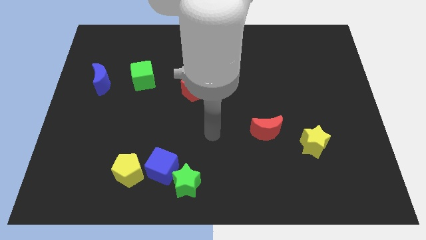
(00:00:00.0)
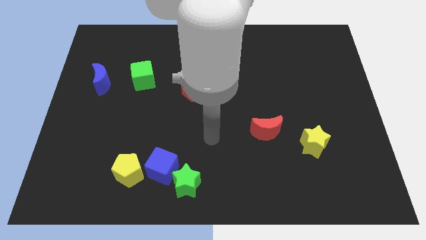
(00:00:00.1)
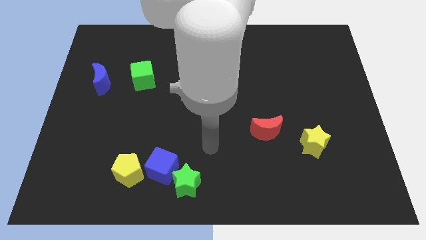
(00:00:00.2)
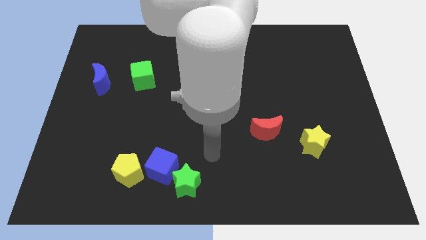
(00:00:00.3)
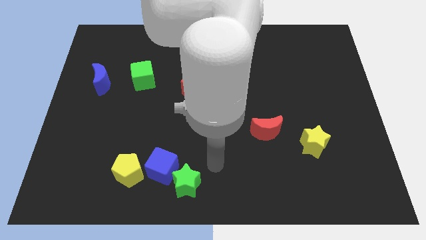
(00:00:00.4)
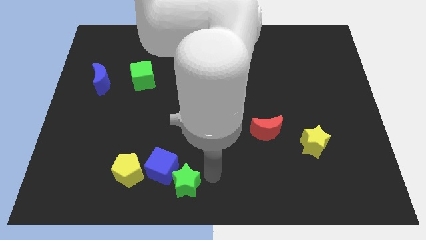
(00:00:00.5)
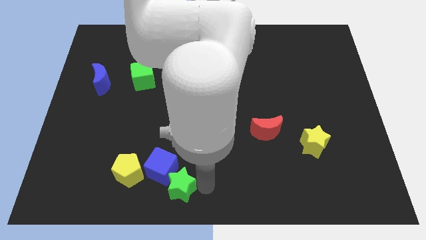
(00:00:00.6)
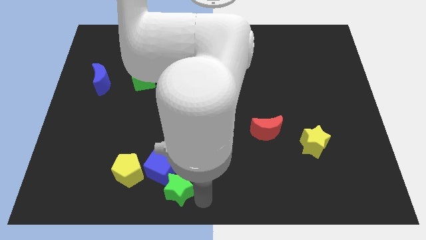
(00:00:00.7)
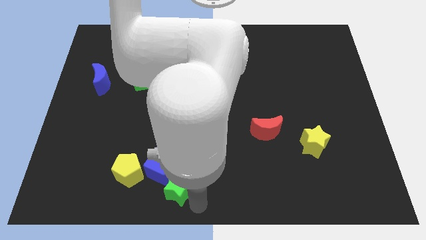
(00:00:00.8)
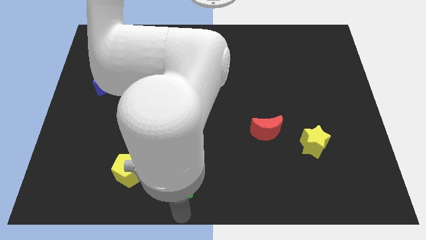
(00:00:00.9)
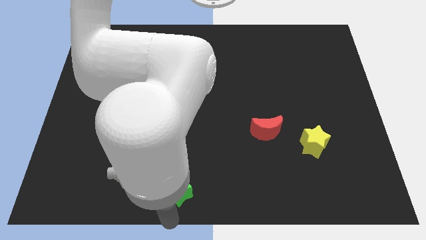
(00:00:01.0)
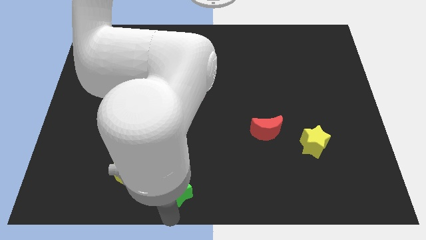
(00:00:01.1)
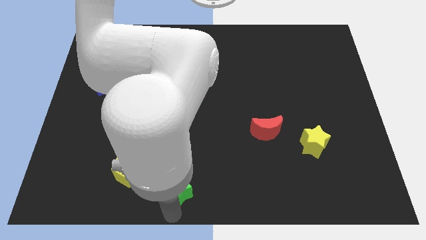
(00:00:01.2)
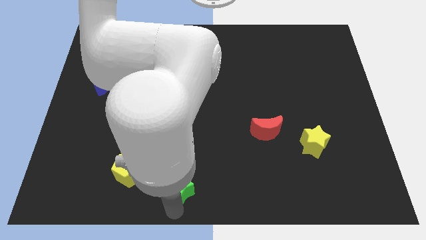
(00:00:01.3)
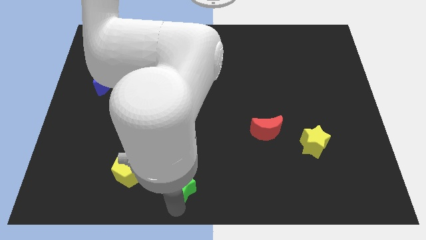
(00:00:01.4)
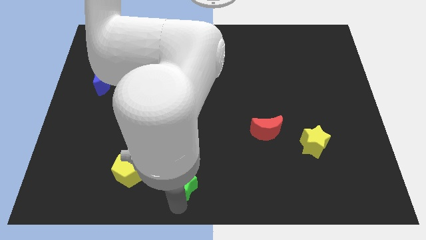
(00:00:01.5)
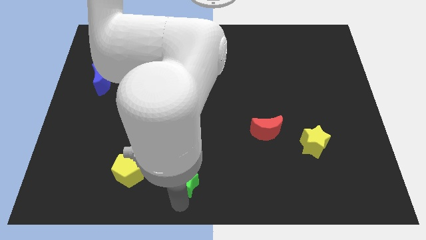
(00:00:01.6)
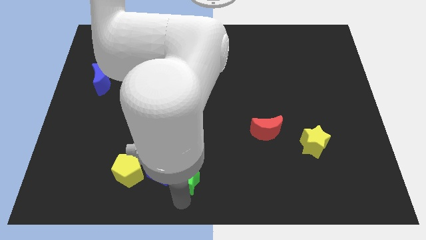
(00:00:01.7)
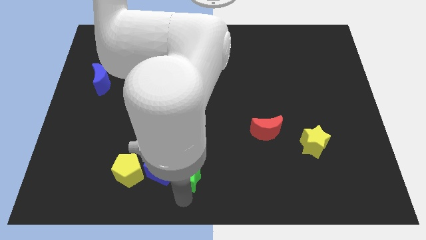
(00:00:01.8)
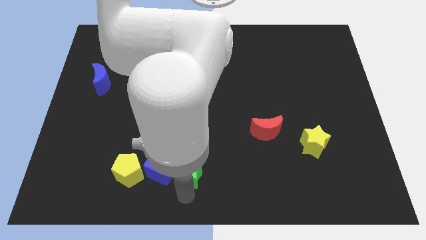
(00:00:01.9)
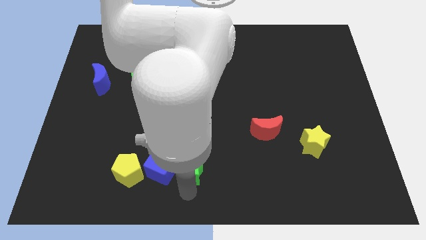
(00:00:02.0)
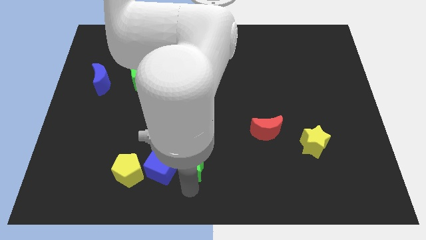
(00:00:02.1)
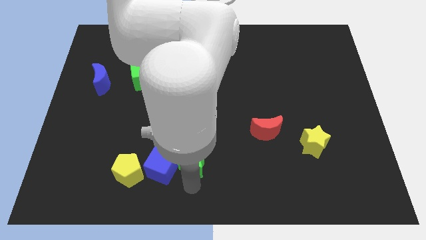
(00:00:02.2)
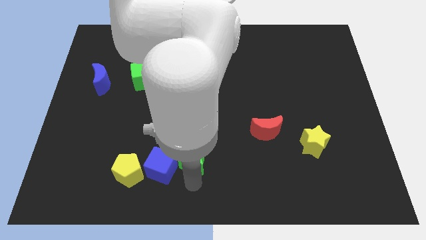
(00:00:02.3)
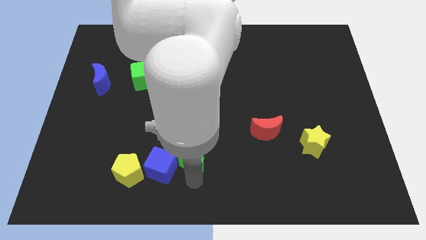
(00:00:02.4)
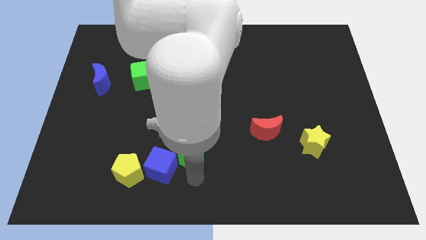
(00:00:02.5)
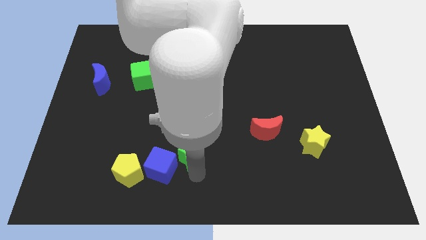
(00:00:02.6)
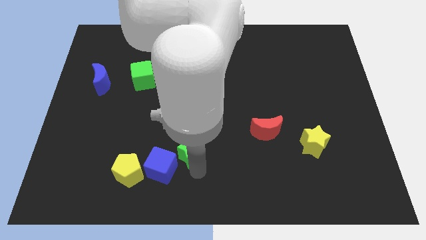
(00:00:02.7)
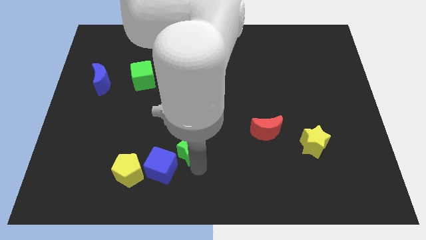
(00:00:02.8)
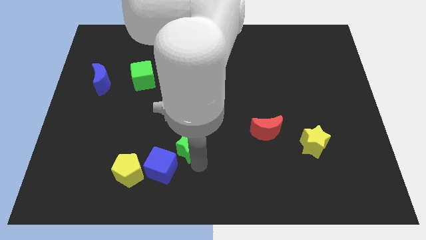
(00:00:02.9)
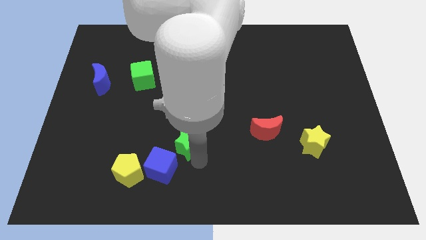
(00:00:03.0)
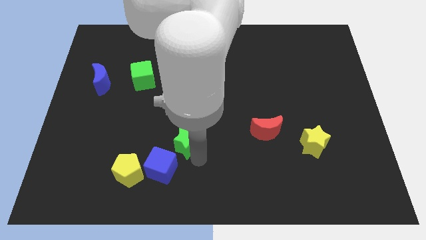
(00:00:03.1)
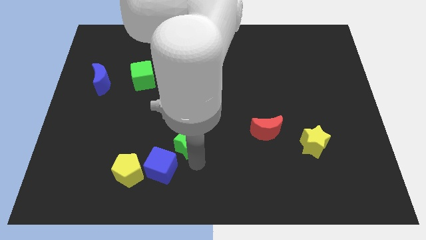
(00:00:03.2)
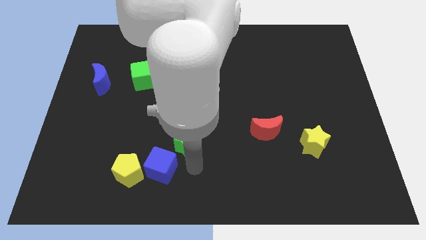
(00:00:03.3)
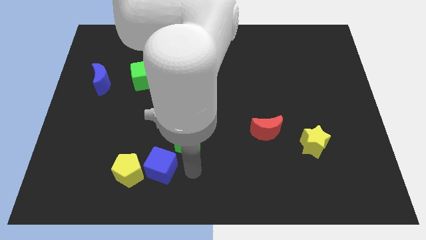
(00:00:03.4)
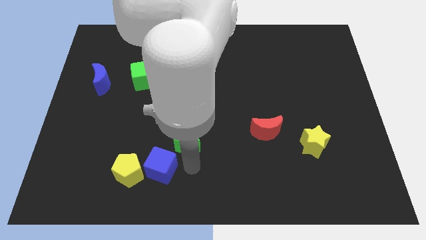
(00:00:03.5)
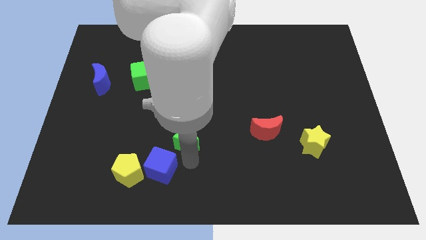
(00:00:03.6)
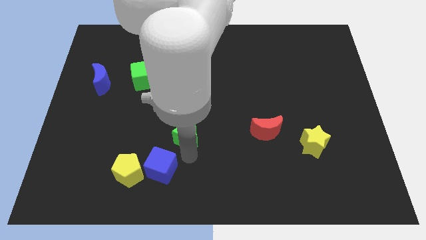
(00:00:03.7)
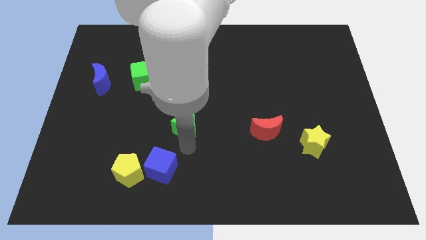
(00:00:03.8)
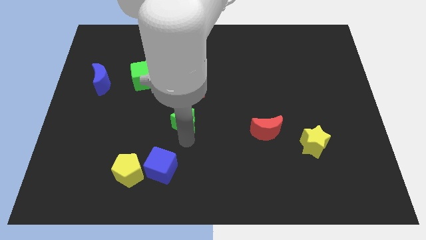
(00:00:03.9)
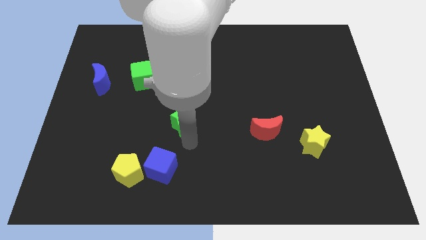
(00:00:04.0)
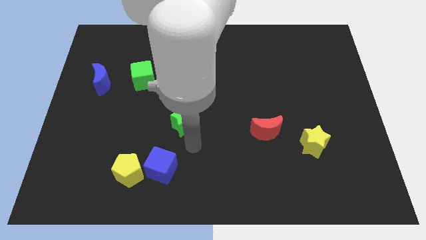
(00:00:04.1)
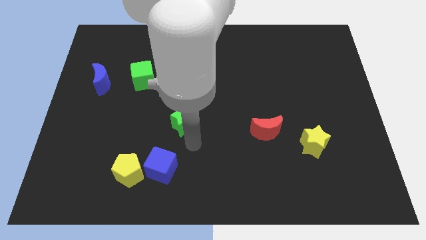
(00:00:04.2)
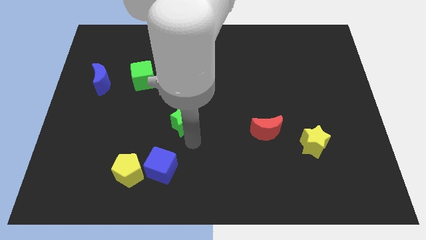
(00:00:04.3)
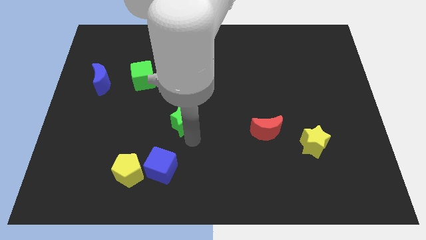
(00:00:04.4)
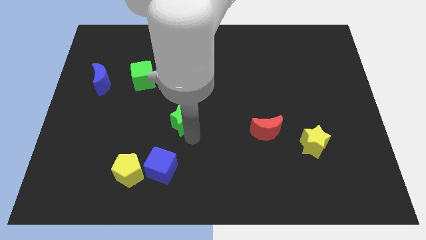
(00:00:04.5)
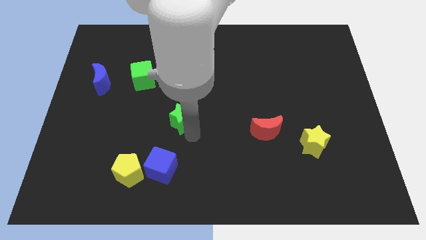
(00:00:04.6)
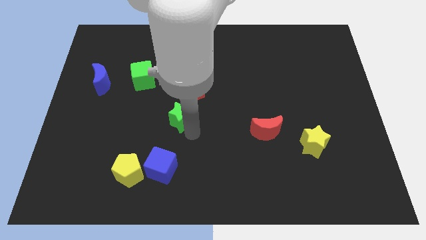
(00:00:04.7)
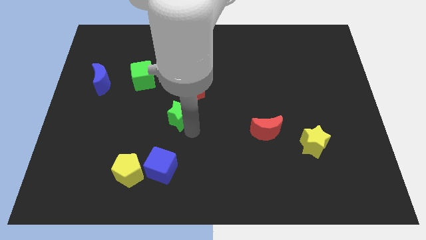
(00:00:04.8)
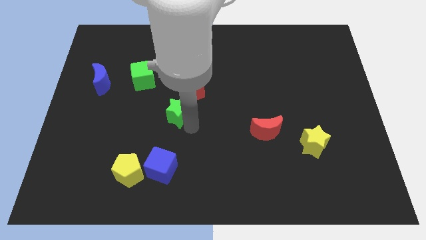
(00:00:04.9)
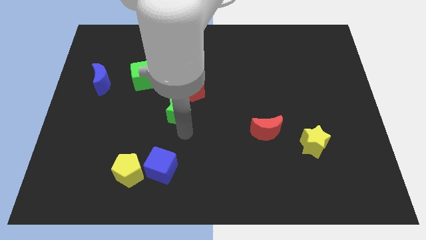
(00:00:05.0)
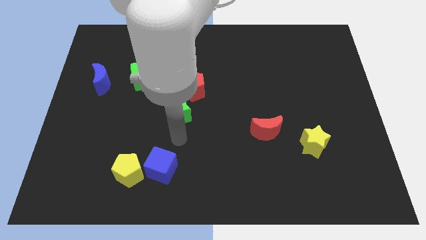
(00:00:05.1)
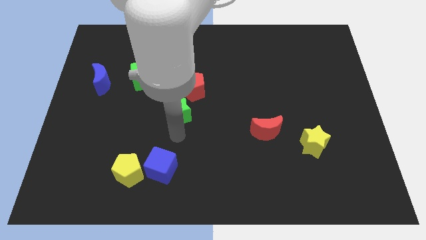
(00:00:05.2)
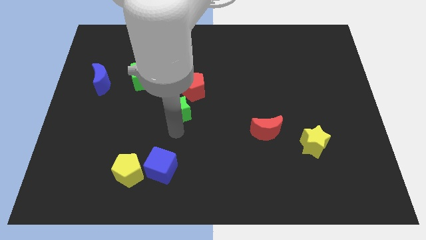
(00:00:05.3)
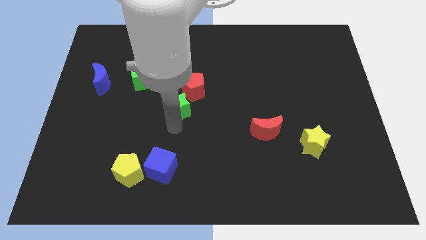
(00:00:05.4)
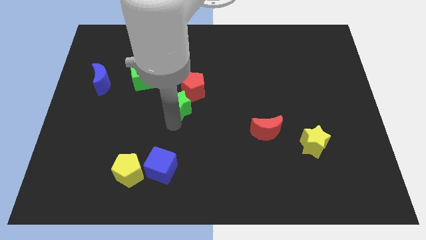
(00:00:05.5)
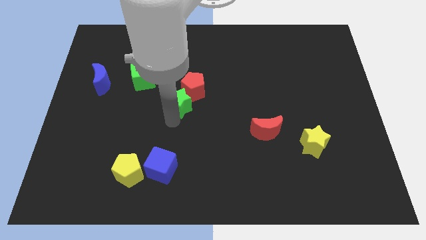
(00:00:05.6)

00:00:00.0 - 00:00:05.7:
move the green star upwards

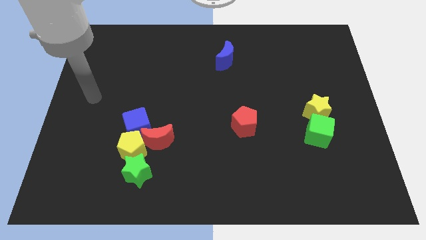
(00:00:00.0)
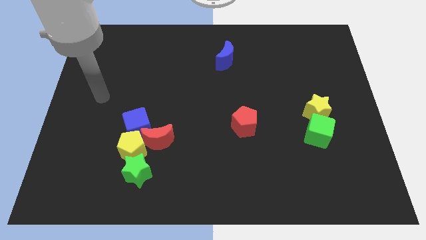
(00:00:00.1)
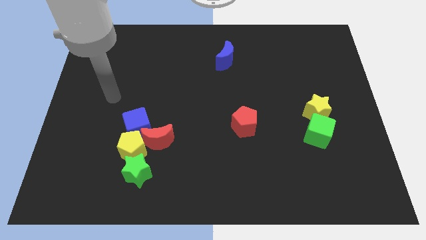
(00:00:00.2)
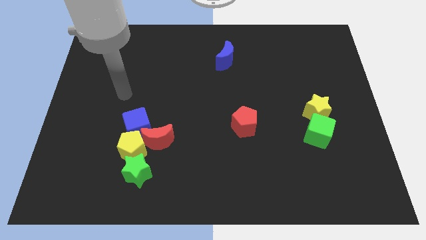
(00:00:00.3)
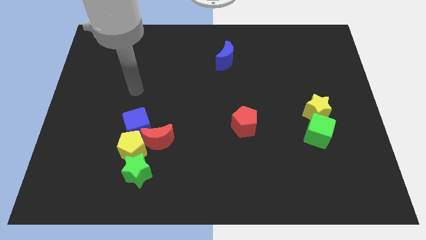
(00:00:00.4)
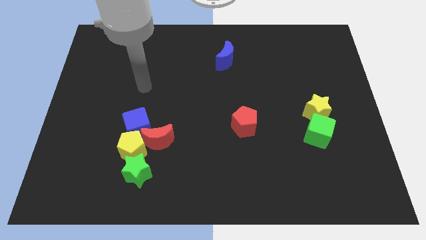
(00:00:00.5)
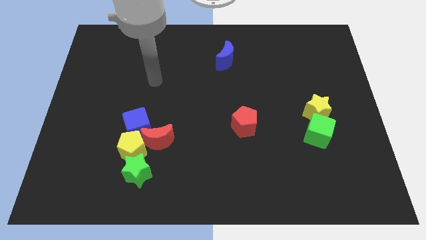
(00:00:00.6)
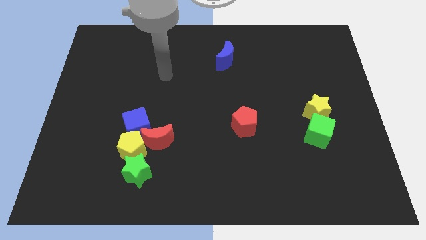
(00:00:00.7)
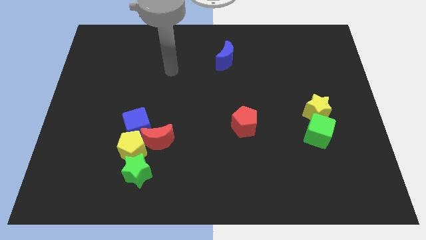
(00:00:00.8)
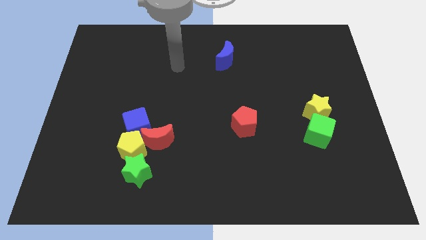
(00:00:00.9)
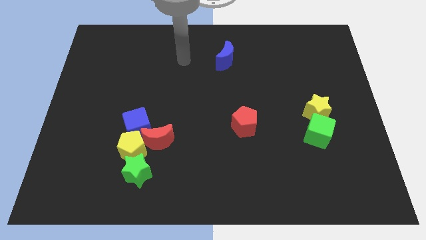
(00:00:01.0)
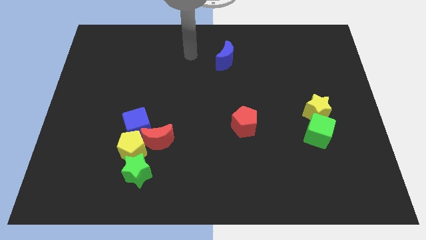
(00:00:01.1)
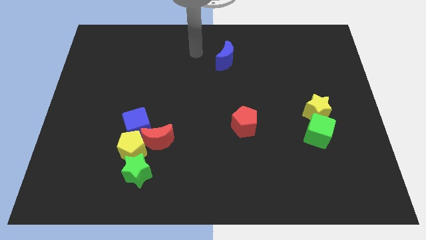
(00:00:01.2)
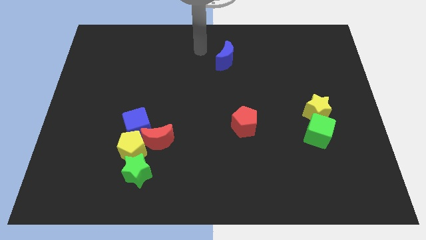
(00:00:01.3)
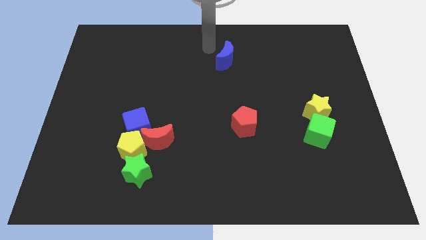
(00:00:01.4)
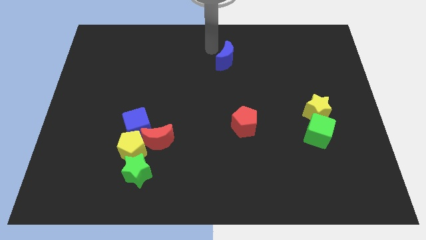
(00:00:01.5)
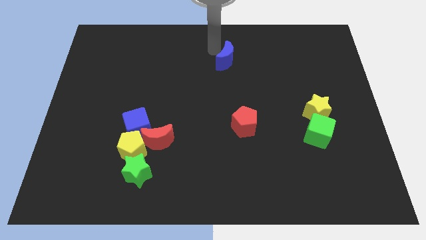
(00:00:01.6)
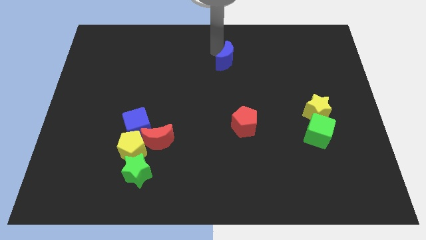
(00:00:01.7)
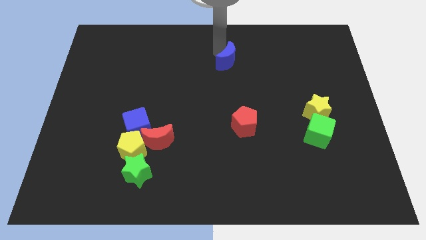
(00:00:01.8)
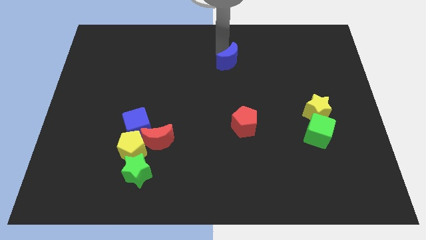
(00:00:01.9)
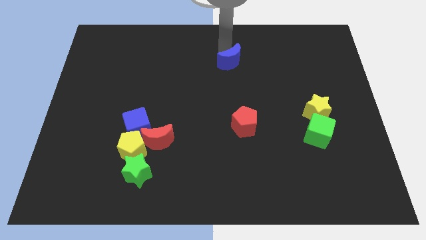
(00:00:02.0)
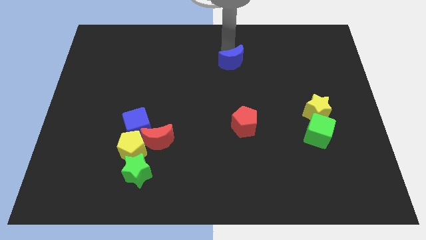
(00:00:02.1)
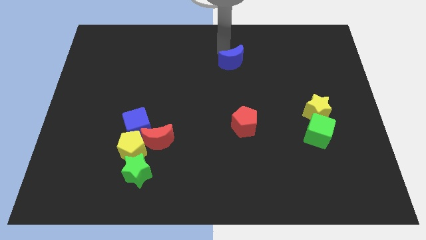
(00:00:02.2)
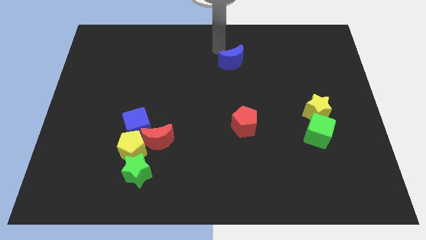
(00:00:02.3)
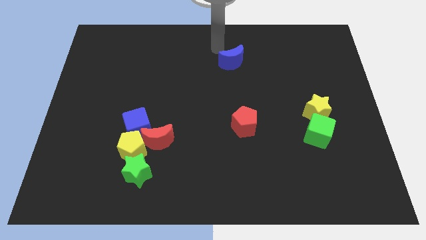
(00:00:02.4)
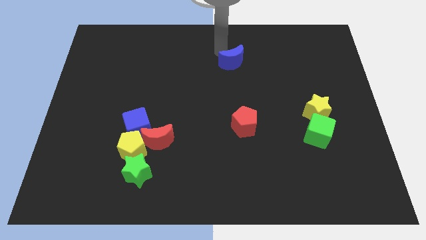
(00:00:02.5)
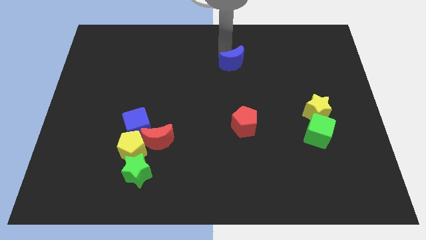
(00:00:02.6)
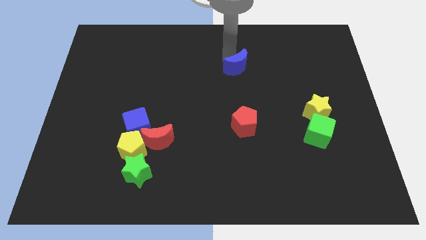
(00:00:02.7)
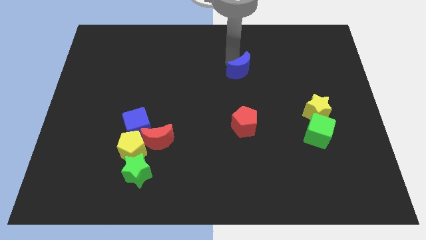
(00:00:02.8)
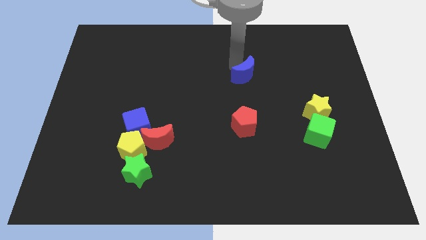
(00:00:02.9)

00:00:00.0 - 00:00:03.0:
slide the blue moon diagonally downwards and to the right a little
